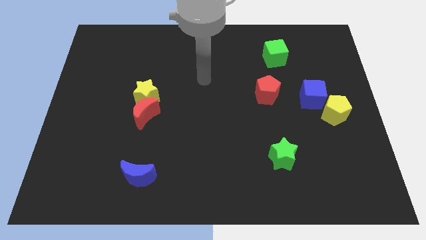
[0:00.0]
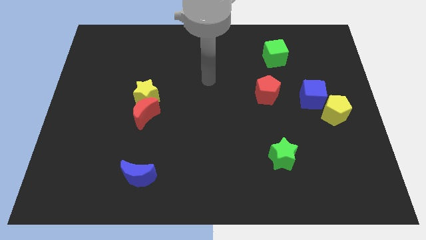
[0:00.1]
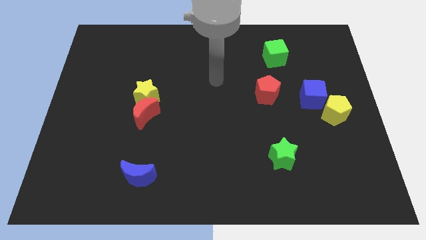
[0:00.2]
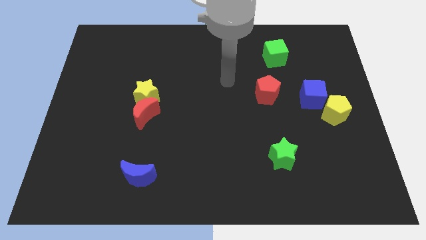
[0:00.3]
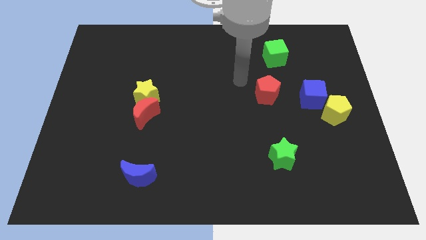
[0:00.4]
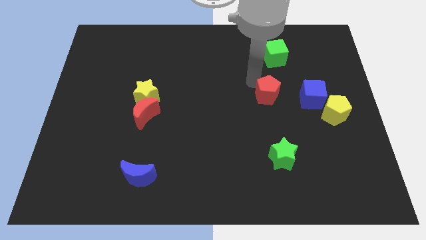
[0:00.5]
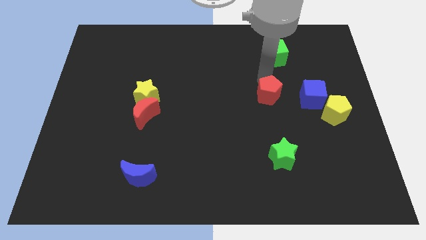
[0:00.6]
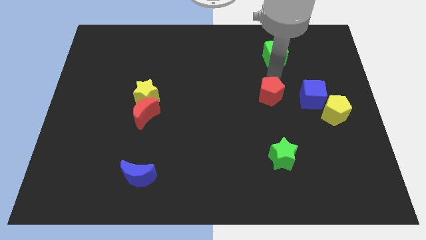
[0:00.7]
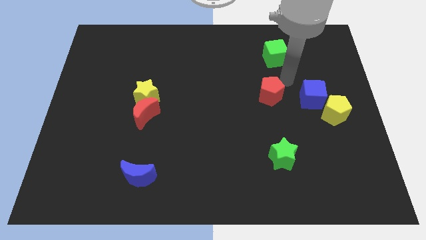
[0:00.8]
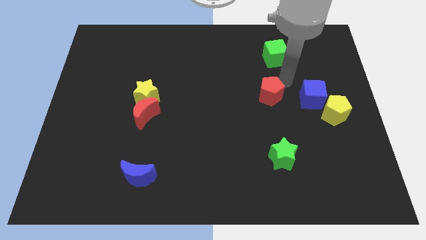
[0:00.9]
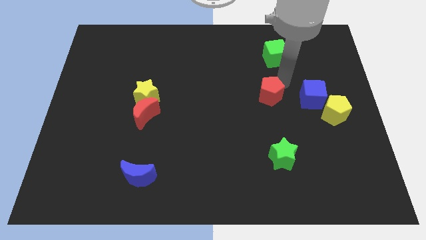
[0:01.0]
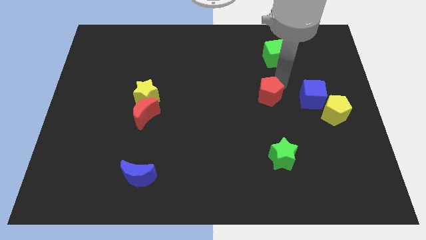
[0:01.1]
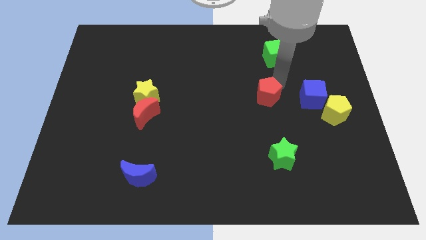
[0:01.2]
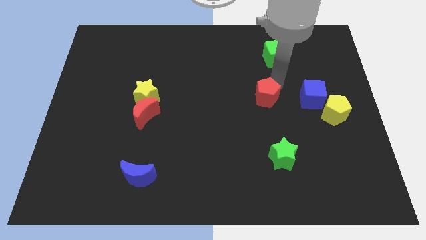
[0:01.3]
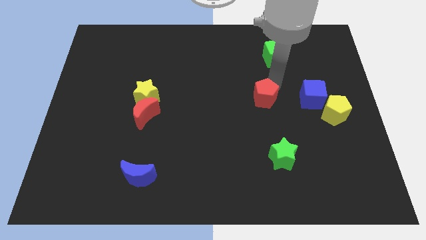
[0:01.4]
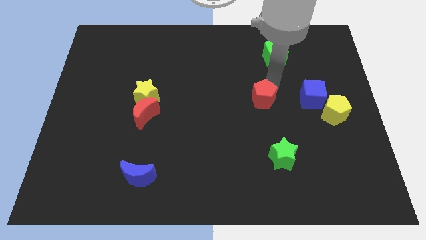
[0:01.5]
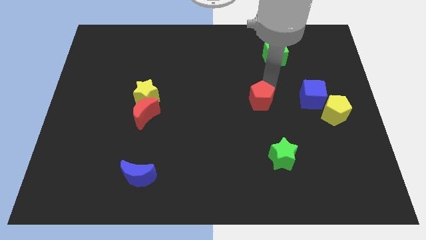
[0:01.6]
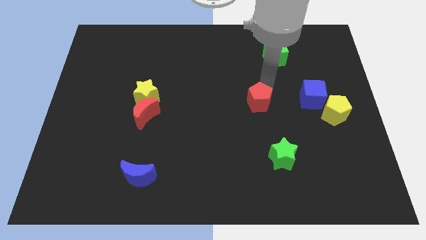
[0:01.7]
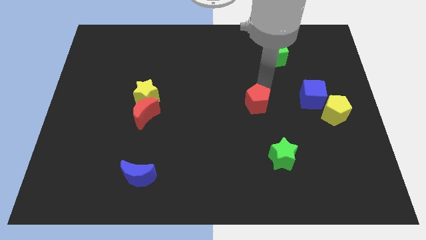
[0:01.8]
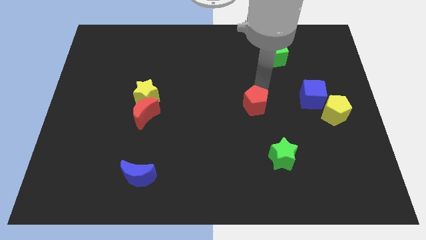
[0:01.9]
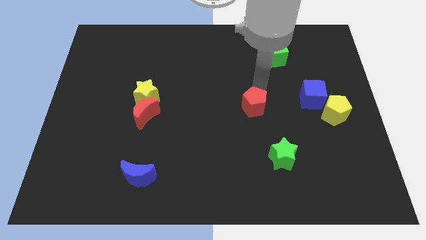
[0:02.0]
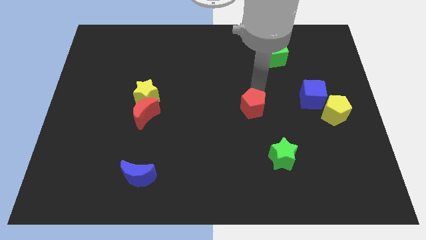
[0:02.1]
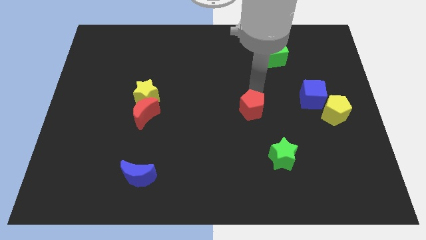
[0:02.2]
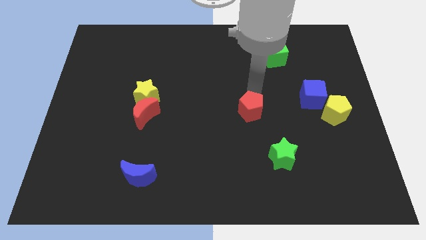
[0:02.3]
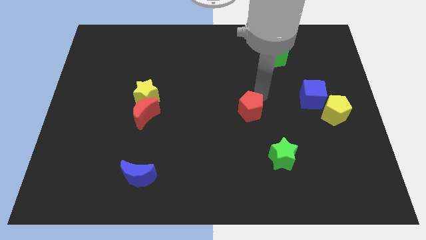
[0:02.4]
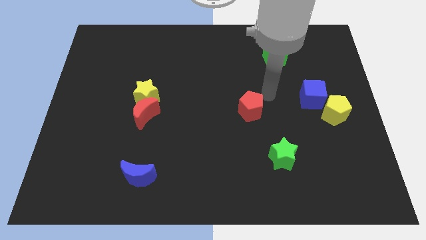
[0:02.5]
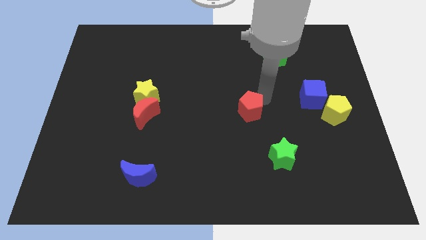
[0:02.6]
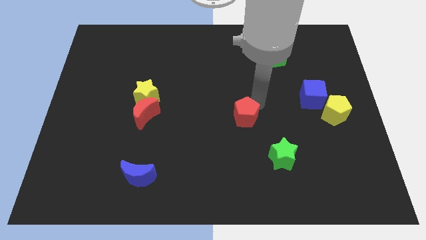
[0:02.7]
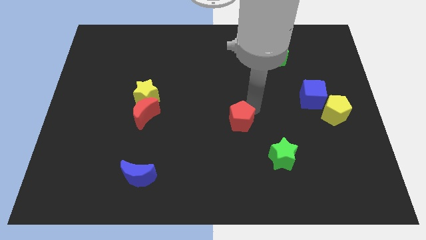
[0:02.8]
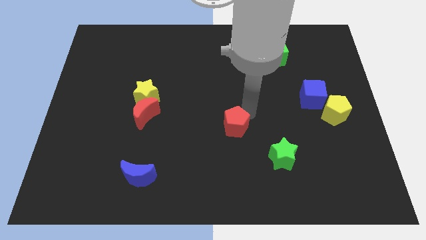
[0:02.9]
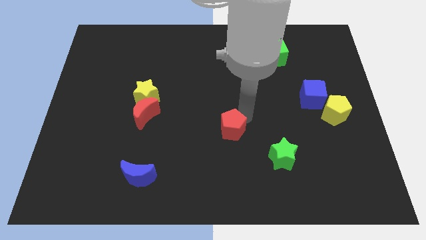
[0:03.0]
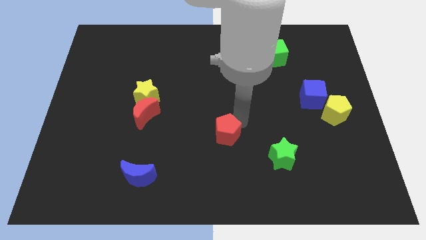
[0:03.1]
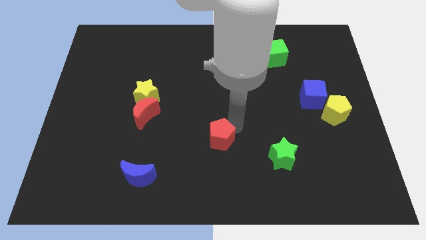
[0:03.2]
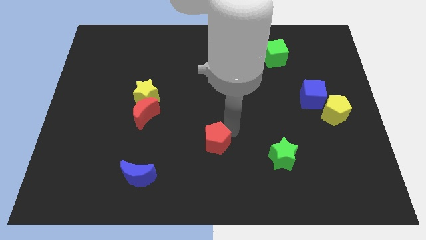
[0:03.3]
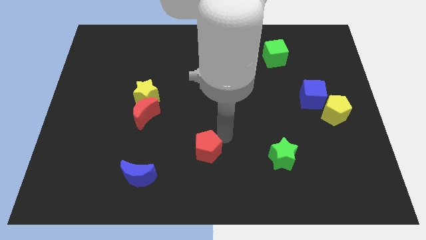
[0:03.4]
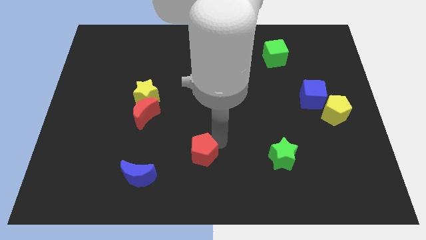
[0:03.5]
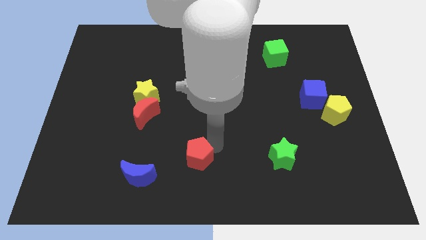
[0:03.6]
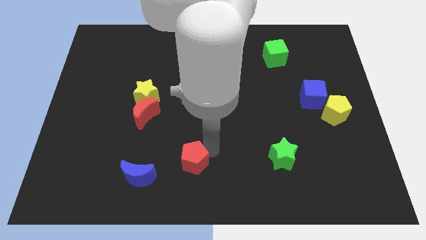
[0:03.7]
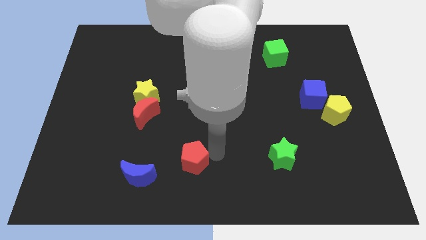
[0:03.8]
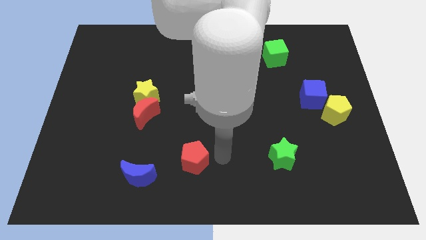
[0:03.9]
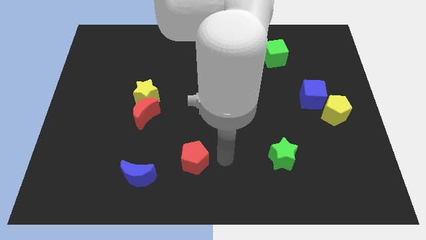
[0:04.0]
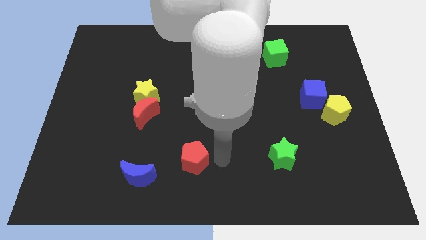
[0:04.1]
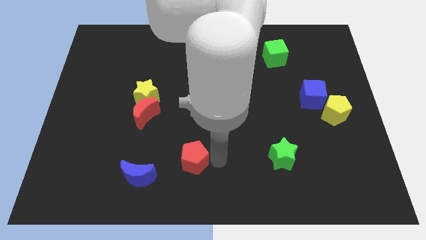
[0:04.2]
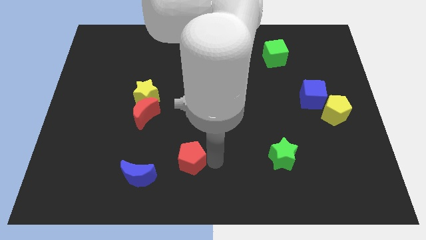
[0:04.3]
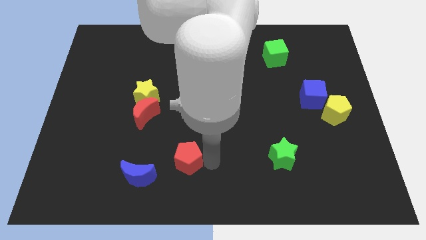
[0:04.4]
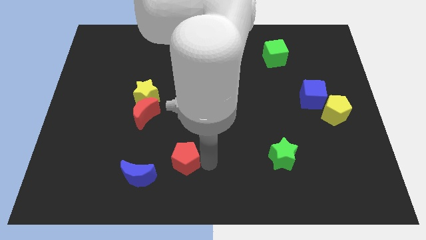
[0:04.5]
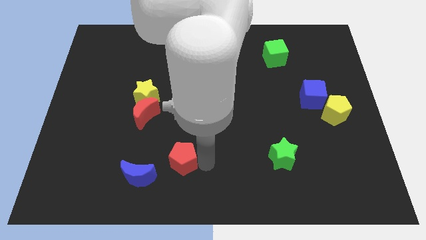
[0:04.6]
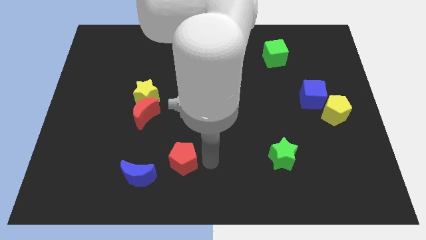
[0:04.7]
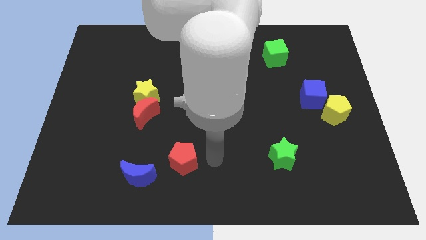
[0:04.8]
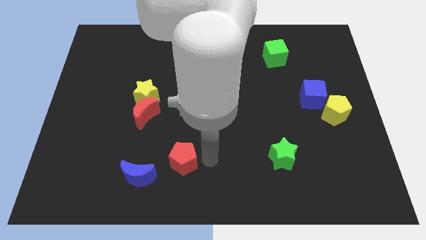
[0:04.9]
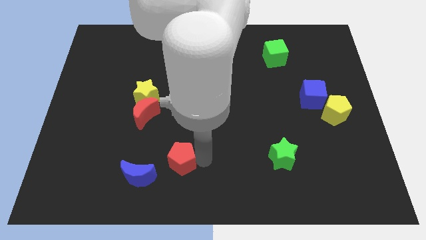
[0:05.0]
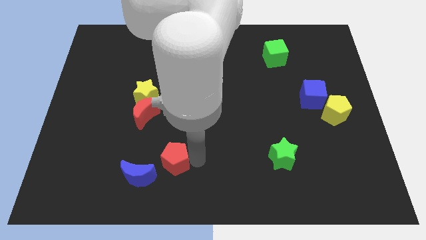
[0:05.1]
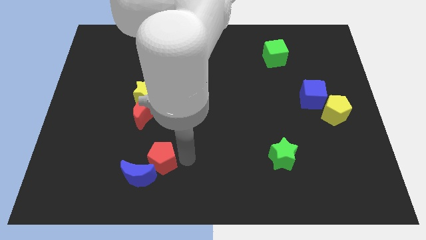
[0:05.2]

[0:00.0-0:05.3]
push the red pentagon towards the blue moon

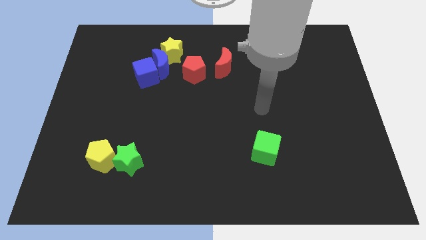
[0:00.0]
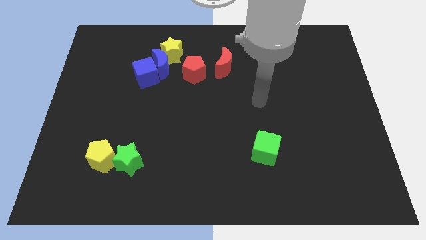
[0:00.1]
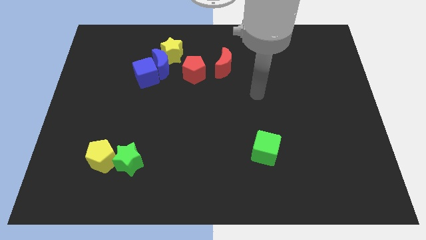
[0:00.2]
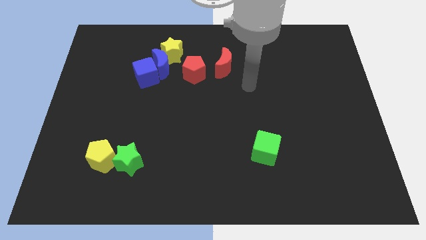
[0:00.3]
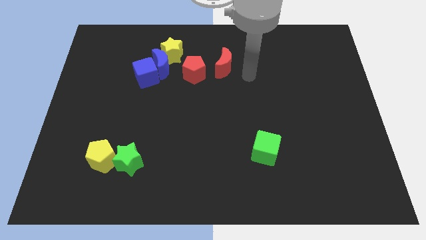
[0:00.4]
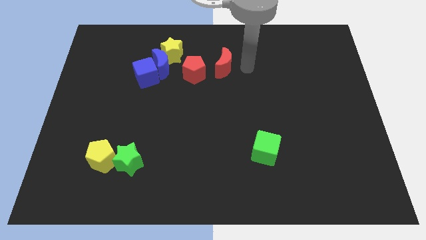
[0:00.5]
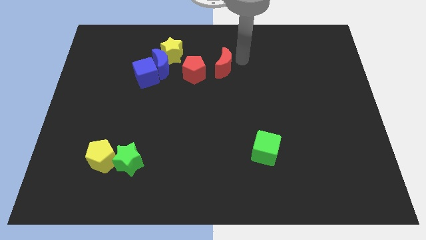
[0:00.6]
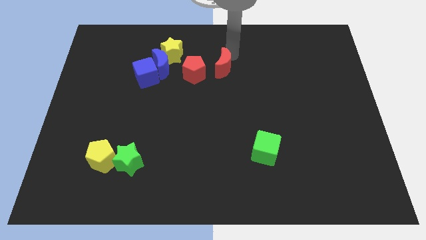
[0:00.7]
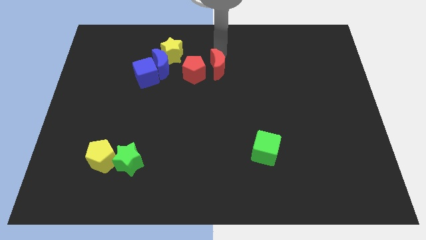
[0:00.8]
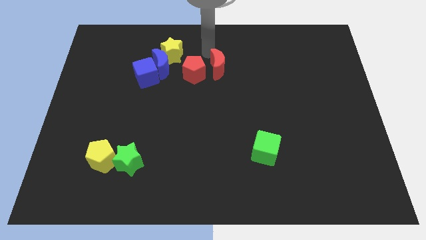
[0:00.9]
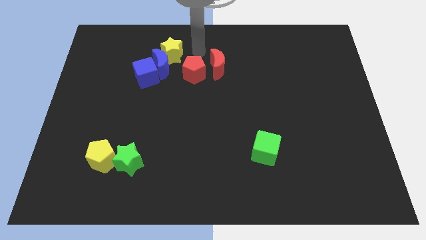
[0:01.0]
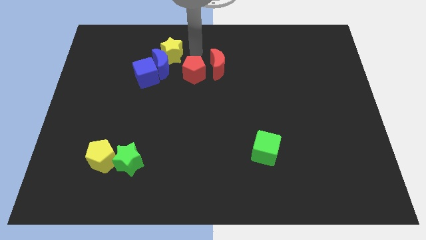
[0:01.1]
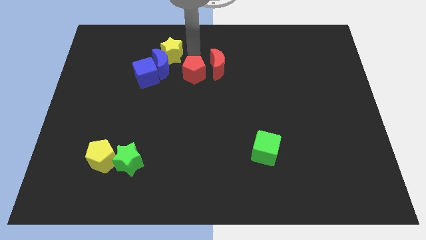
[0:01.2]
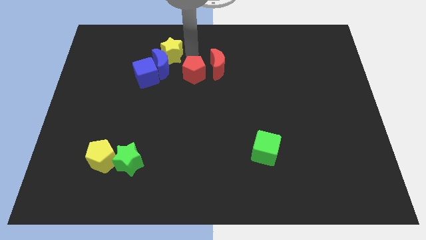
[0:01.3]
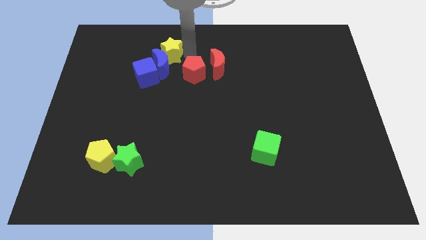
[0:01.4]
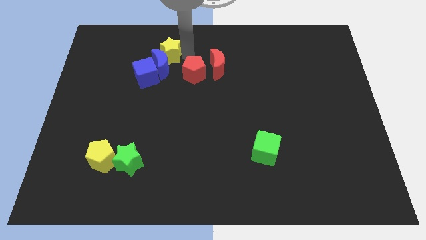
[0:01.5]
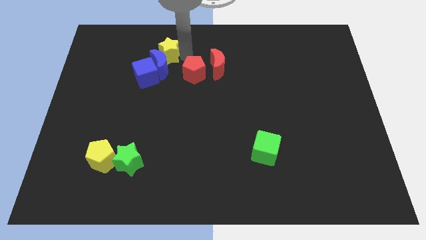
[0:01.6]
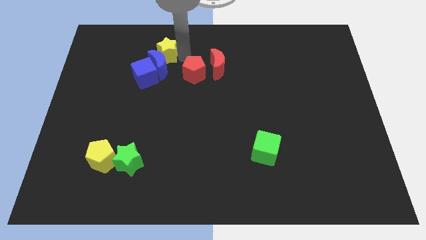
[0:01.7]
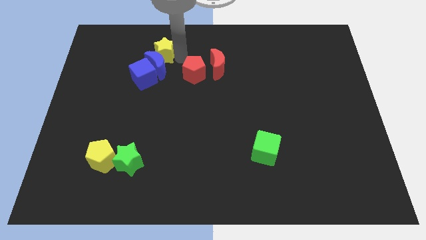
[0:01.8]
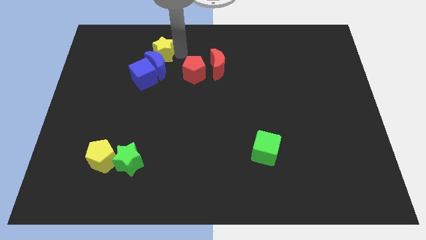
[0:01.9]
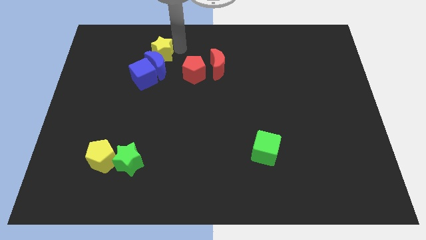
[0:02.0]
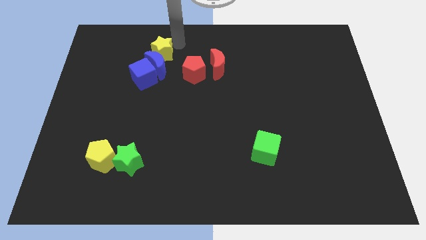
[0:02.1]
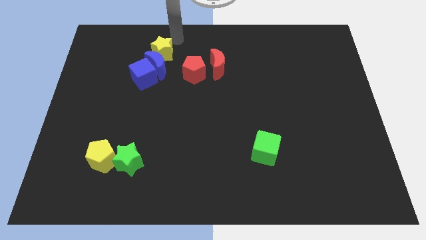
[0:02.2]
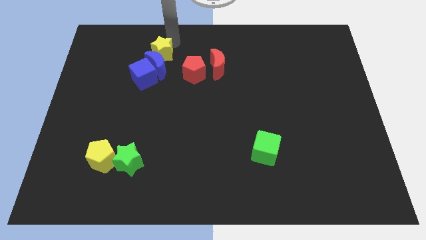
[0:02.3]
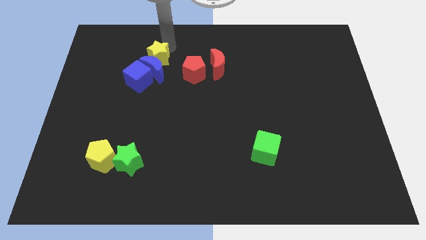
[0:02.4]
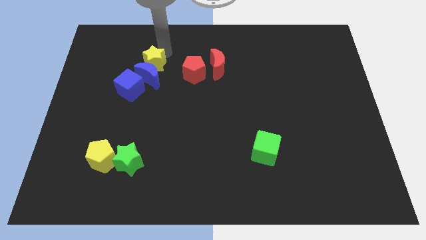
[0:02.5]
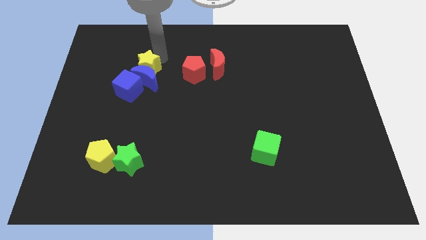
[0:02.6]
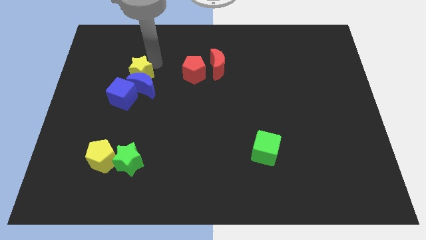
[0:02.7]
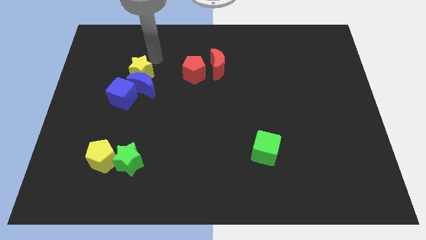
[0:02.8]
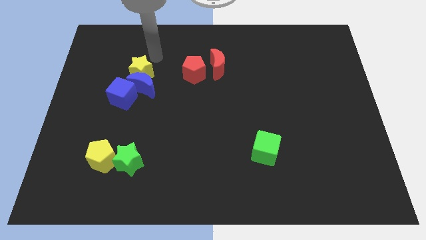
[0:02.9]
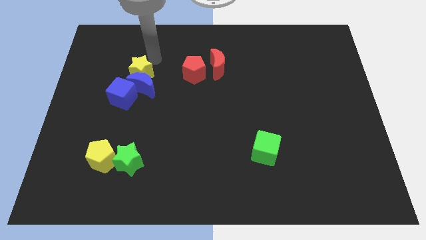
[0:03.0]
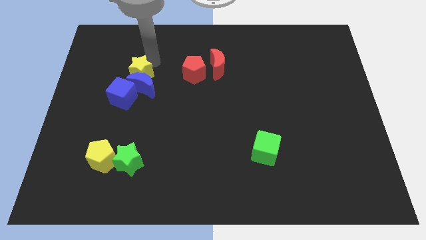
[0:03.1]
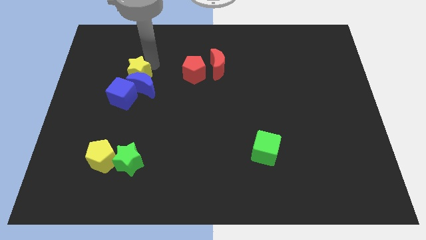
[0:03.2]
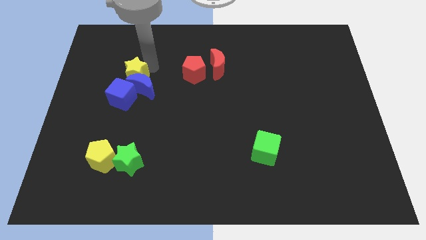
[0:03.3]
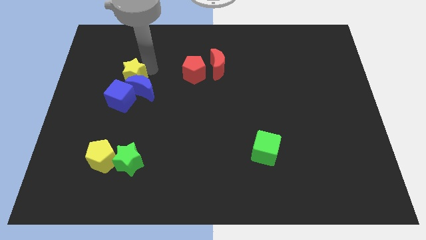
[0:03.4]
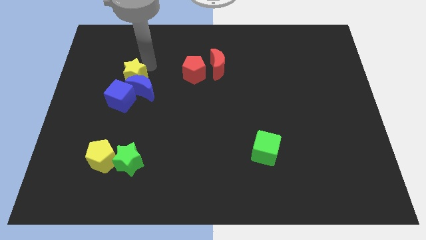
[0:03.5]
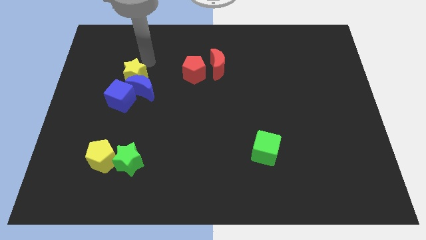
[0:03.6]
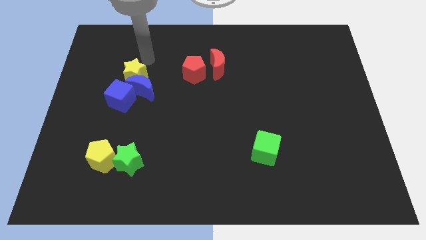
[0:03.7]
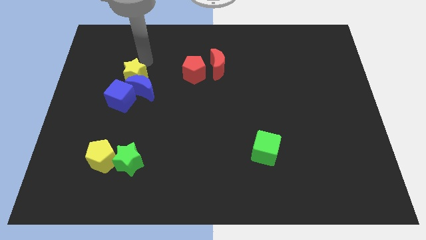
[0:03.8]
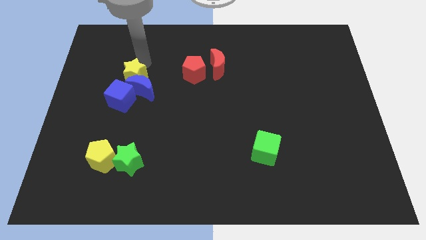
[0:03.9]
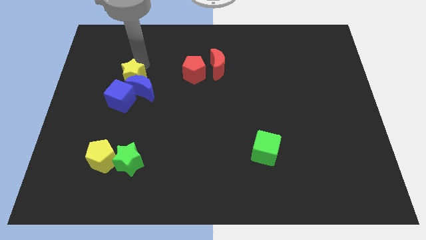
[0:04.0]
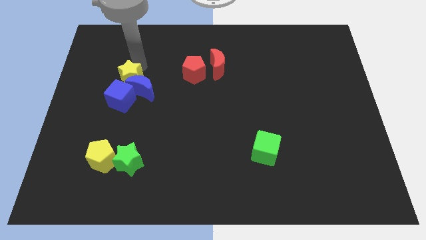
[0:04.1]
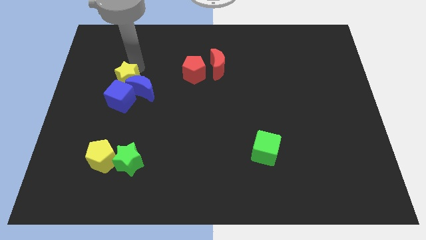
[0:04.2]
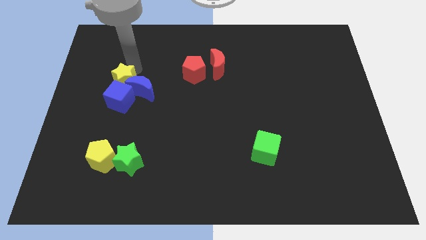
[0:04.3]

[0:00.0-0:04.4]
slide the yellow star towards the blue cube
